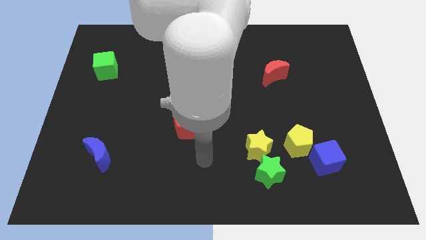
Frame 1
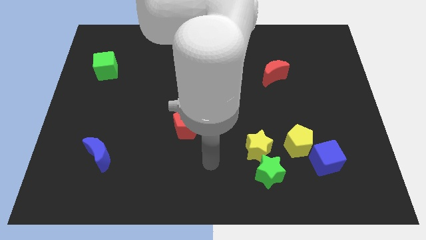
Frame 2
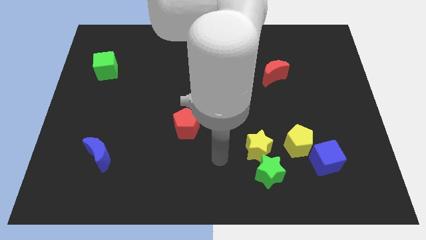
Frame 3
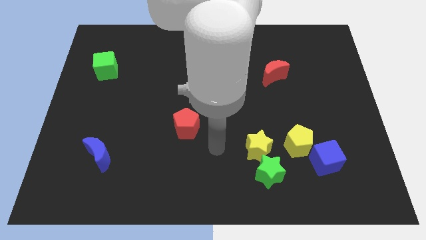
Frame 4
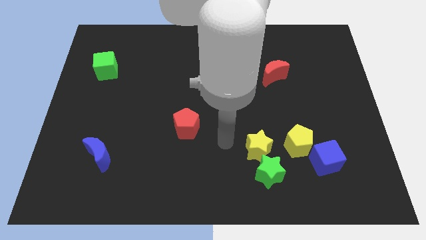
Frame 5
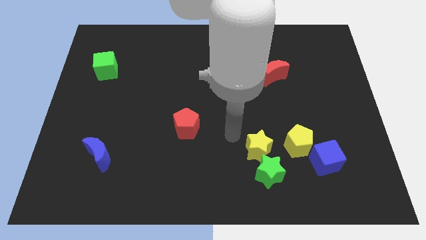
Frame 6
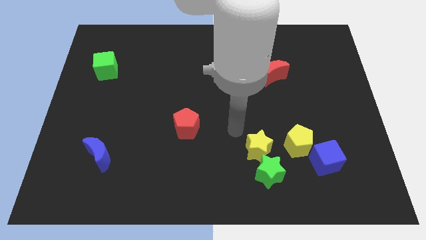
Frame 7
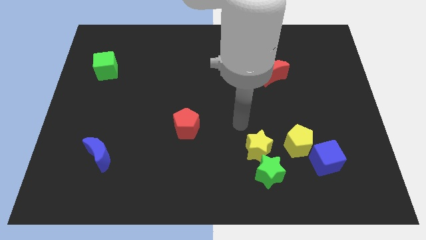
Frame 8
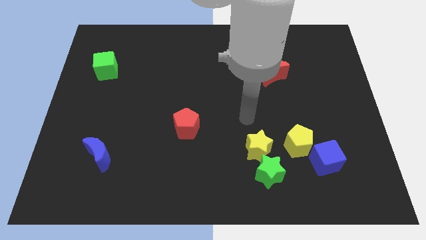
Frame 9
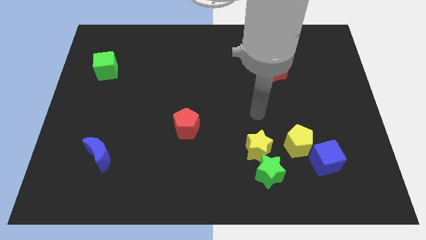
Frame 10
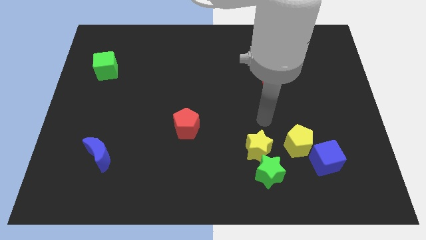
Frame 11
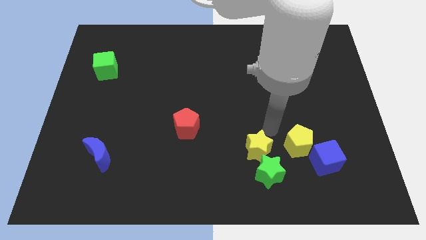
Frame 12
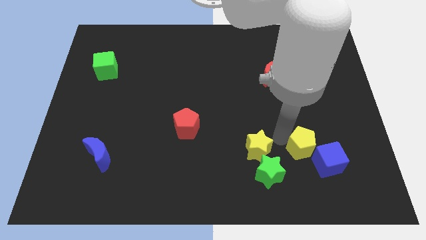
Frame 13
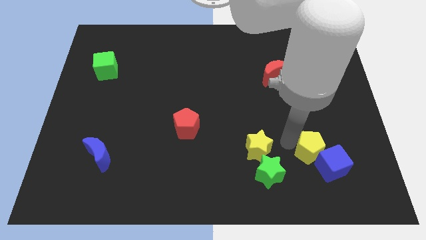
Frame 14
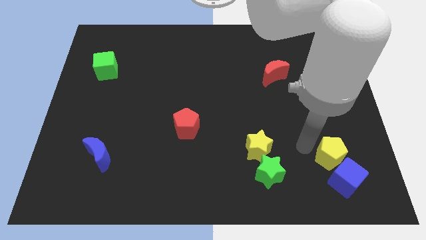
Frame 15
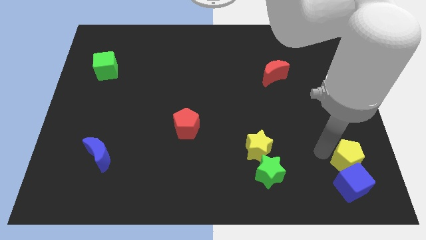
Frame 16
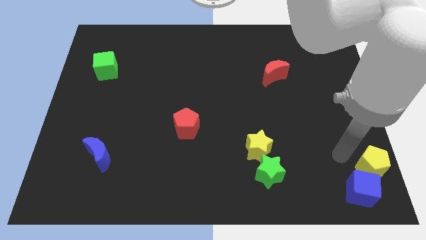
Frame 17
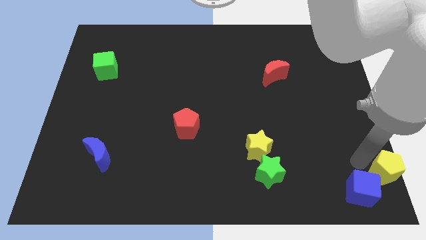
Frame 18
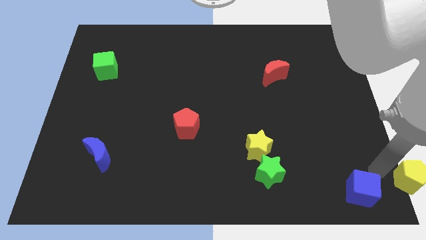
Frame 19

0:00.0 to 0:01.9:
pull the blue cube apart from the yellow pentagon

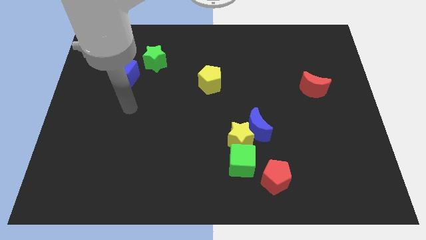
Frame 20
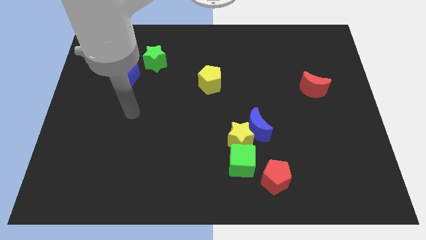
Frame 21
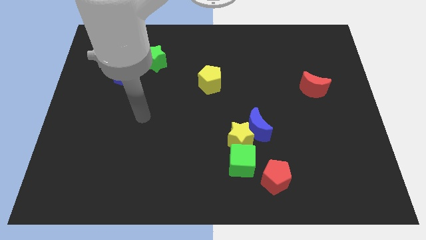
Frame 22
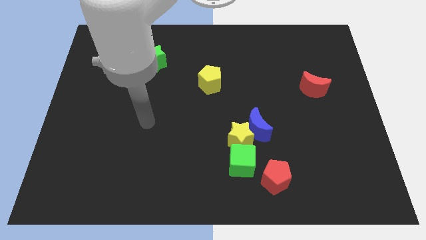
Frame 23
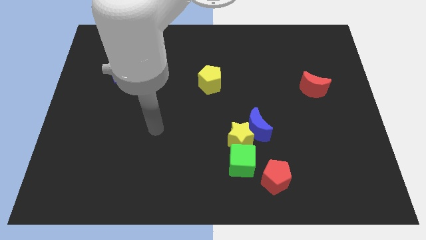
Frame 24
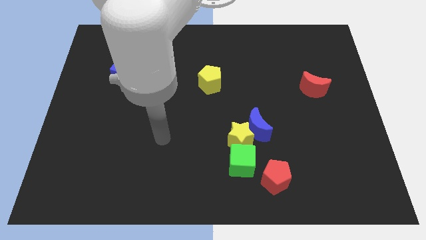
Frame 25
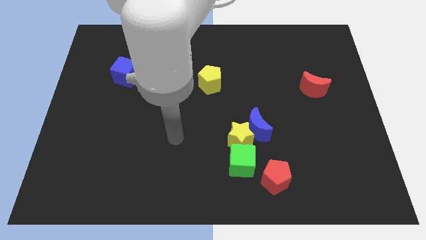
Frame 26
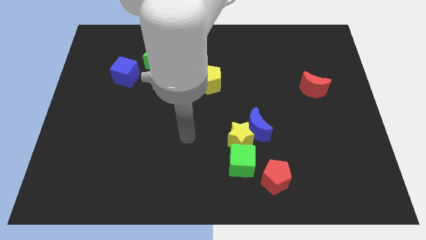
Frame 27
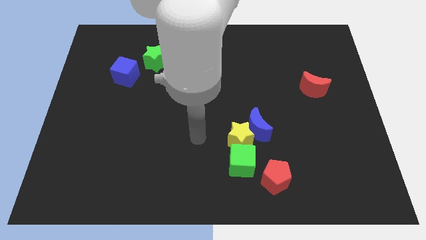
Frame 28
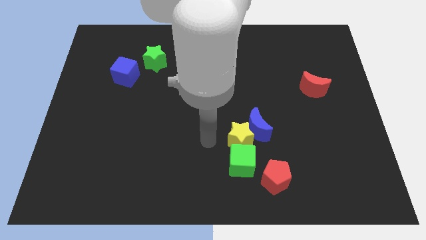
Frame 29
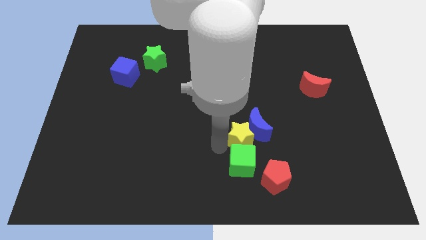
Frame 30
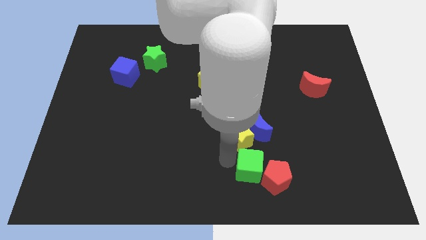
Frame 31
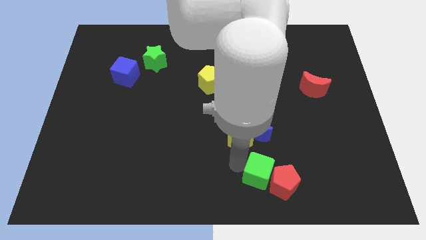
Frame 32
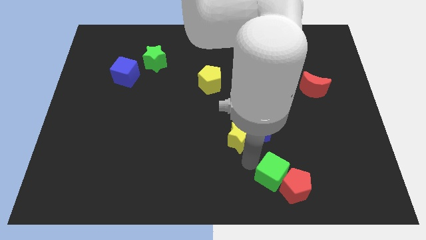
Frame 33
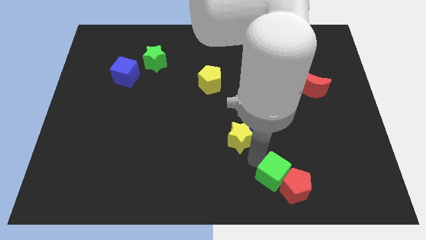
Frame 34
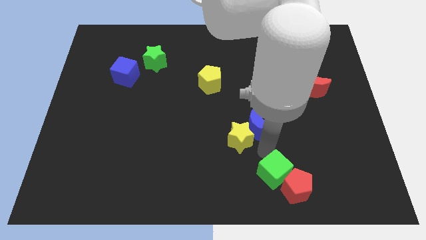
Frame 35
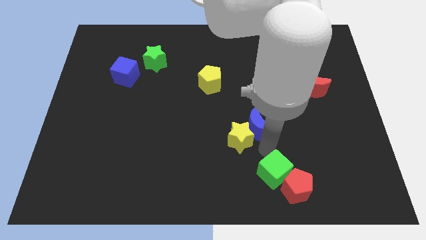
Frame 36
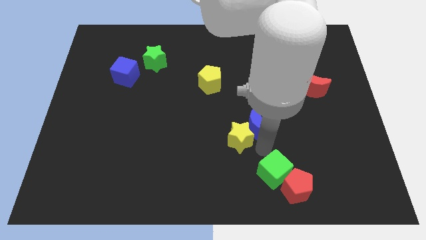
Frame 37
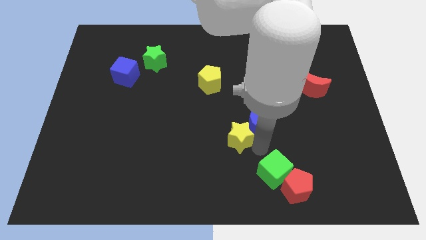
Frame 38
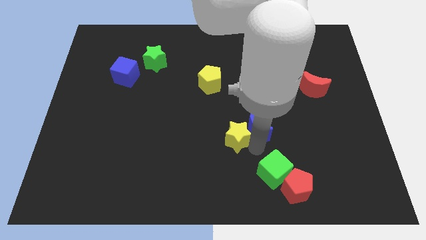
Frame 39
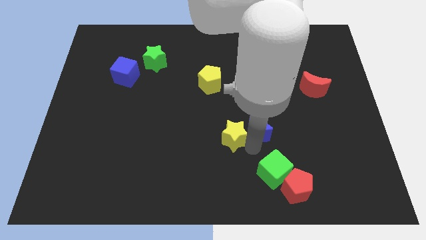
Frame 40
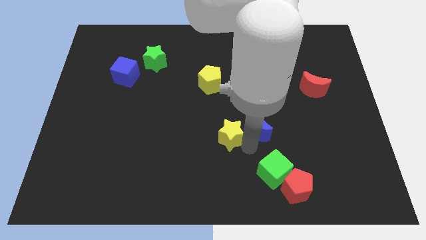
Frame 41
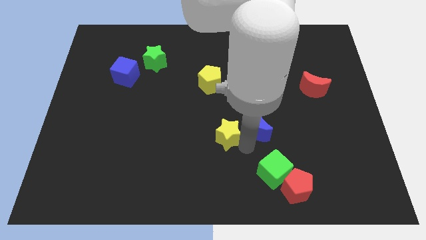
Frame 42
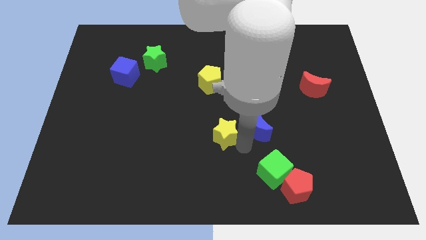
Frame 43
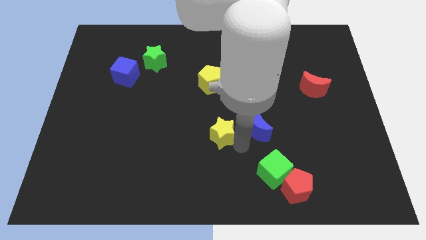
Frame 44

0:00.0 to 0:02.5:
pull the yellow star apart from the blue moon and green cube

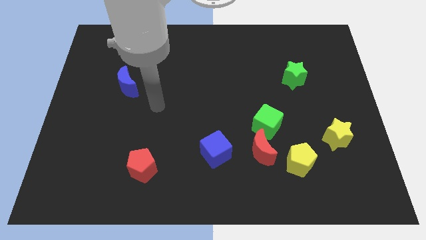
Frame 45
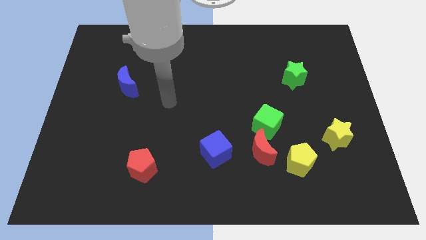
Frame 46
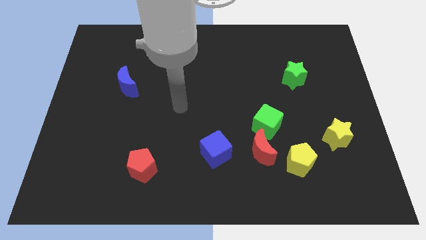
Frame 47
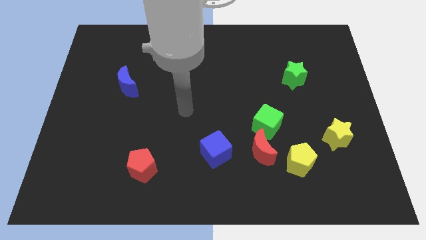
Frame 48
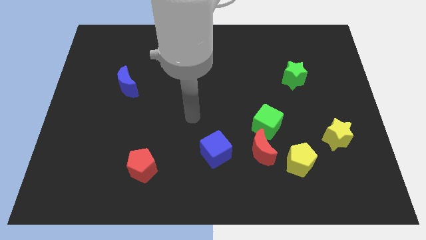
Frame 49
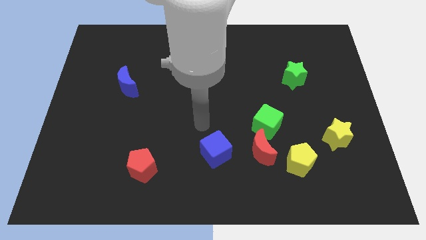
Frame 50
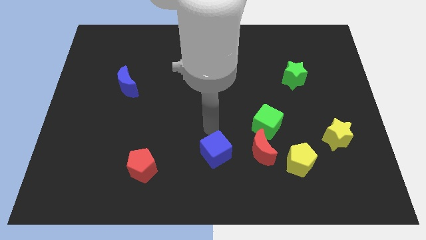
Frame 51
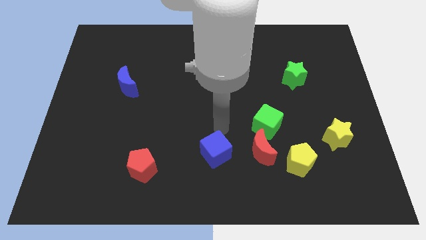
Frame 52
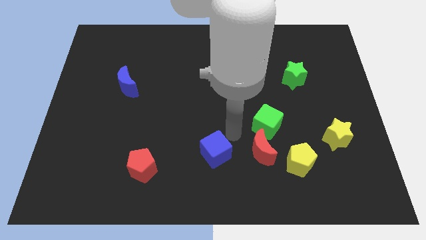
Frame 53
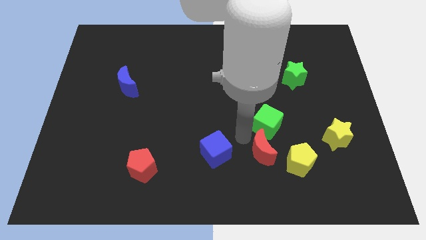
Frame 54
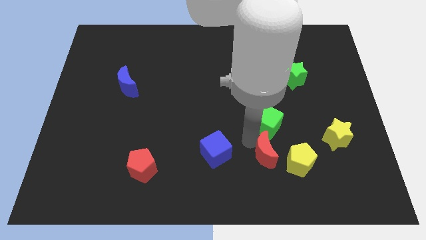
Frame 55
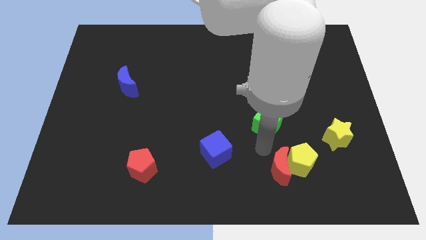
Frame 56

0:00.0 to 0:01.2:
separate the green cube from the red moon

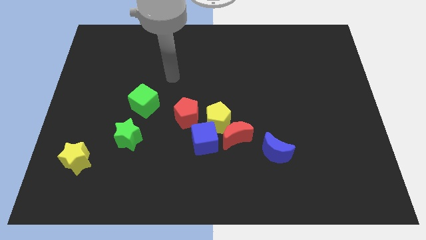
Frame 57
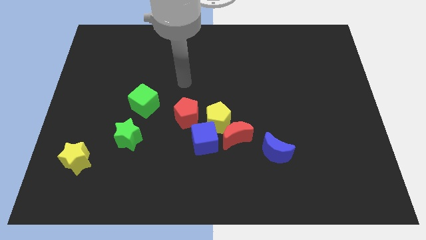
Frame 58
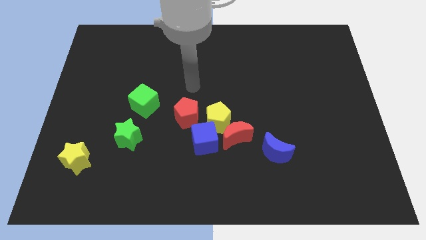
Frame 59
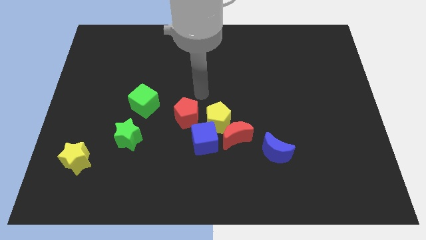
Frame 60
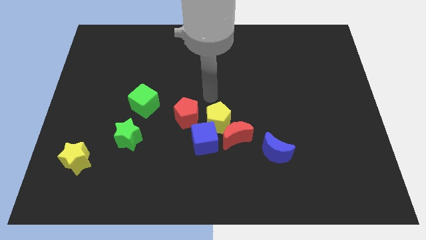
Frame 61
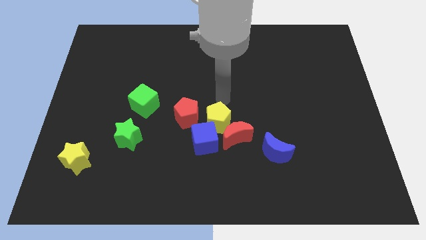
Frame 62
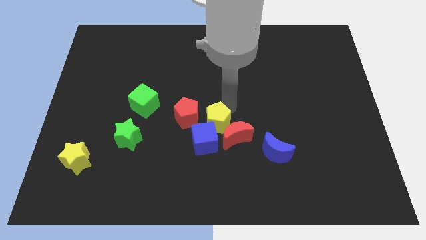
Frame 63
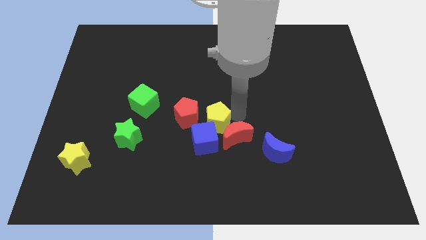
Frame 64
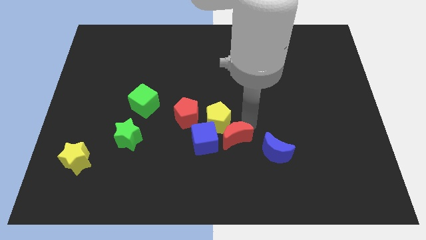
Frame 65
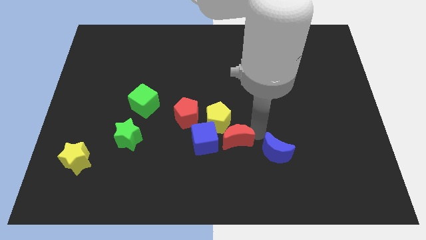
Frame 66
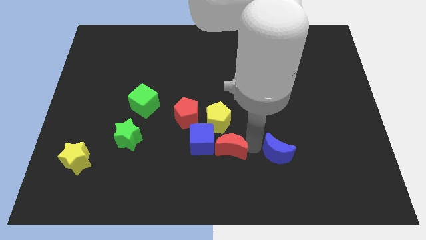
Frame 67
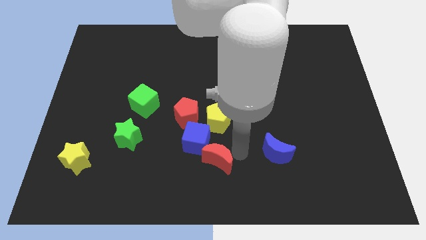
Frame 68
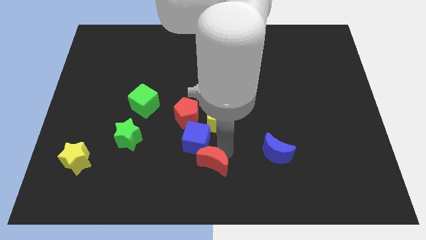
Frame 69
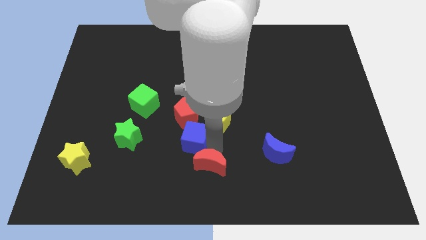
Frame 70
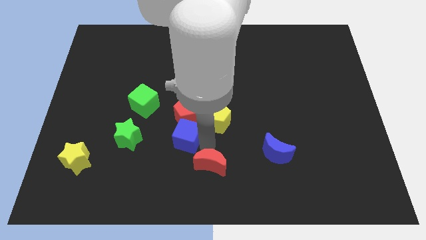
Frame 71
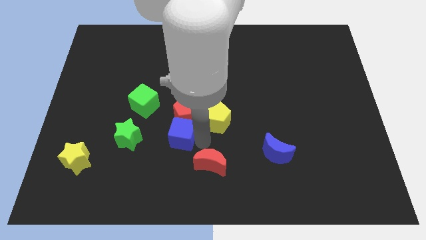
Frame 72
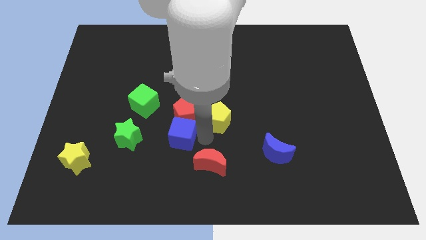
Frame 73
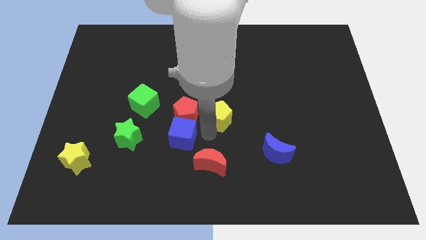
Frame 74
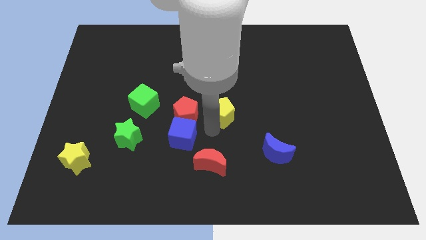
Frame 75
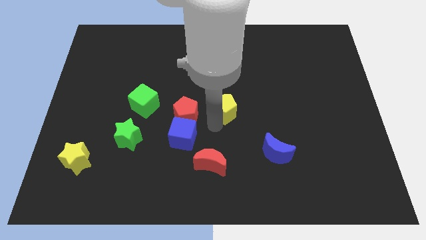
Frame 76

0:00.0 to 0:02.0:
move the yellow pentagon away from the red moon, blue cube, and red pentagon

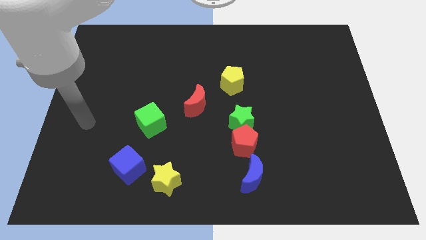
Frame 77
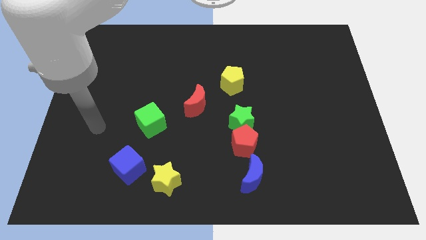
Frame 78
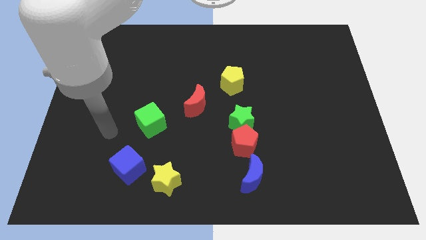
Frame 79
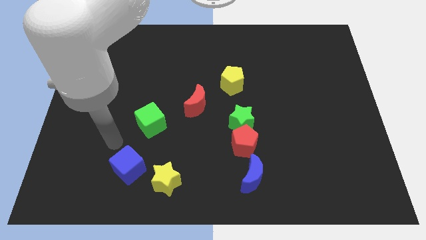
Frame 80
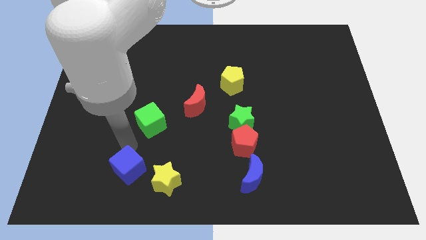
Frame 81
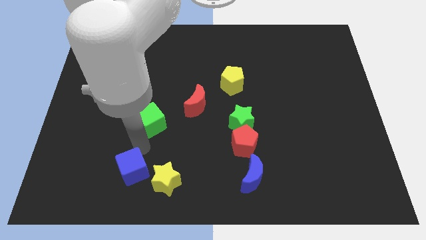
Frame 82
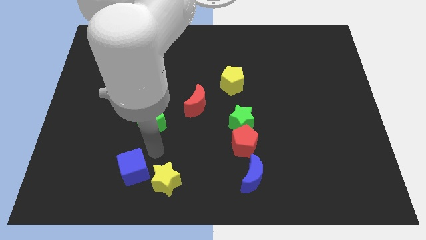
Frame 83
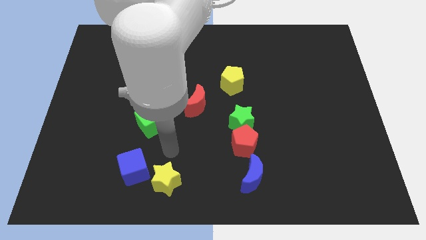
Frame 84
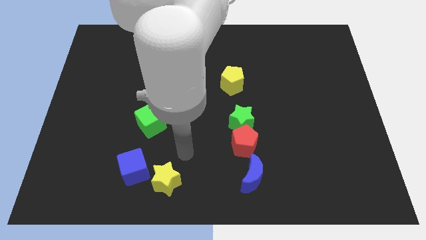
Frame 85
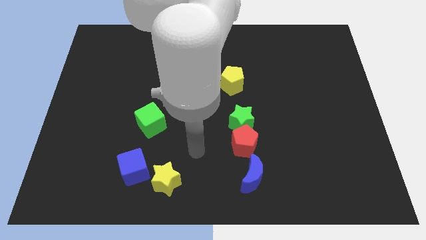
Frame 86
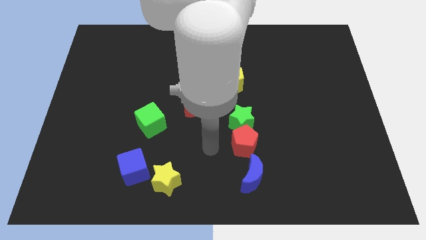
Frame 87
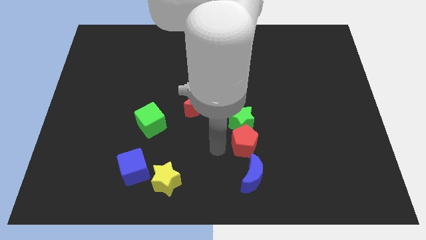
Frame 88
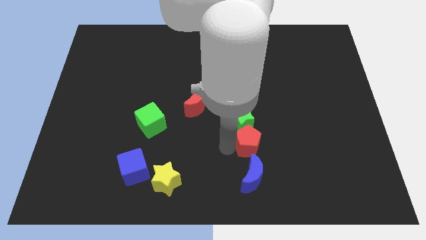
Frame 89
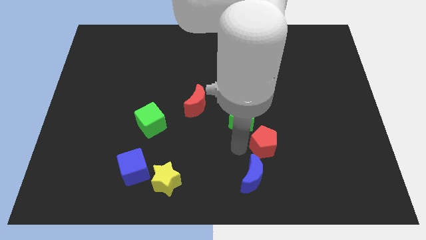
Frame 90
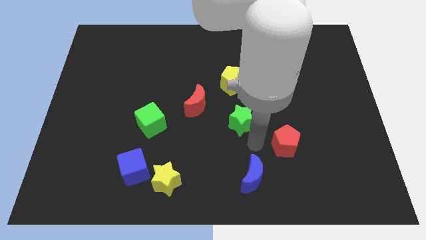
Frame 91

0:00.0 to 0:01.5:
move the green star away from the red pentagon
